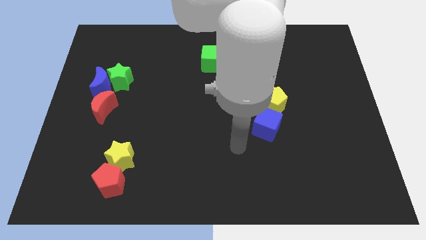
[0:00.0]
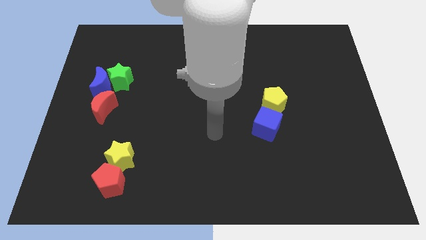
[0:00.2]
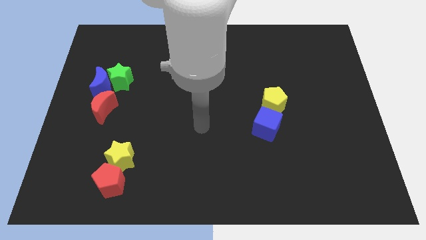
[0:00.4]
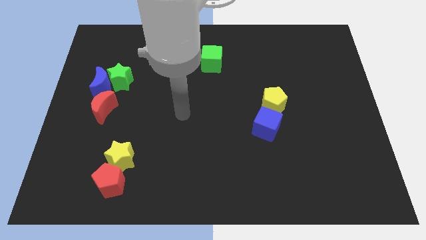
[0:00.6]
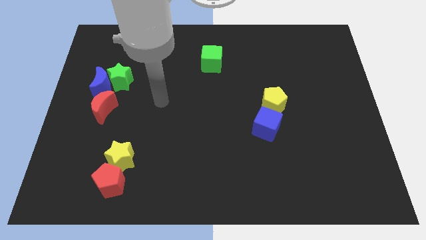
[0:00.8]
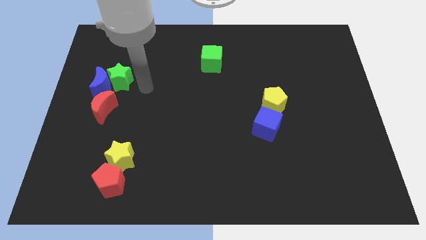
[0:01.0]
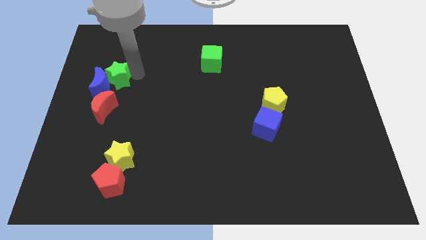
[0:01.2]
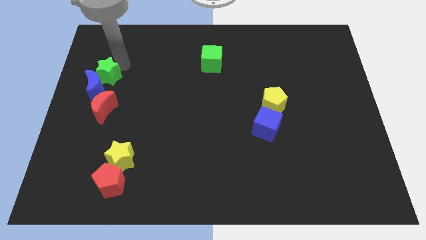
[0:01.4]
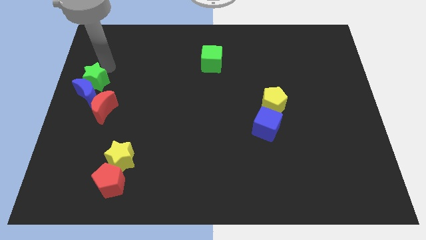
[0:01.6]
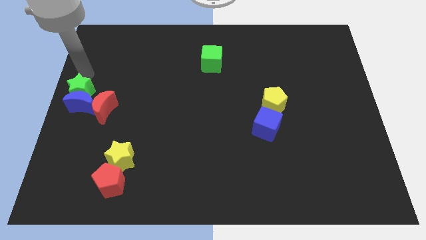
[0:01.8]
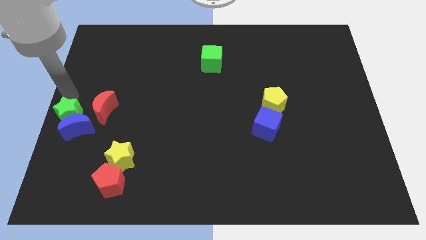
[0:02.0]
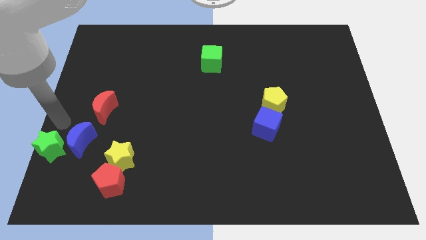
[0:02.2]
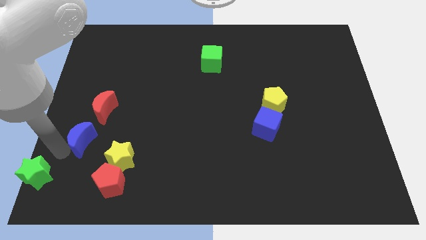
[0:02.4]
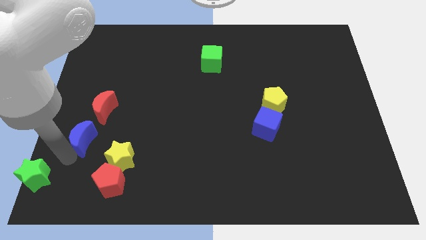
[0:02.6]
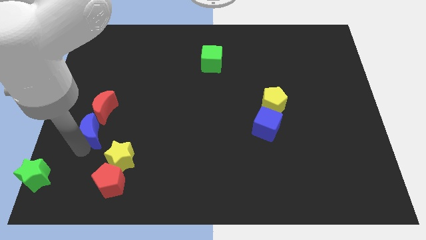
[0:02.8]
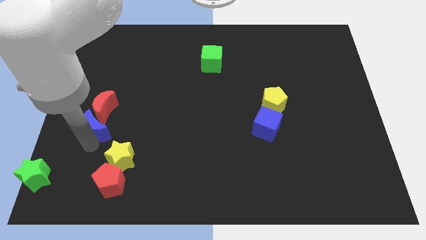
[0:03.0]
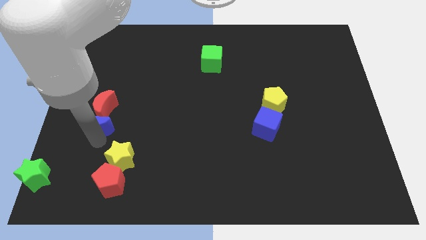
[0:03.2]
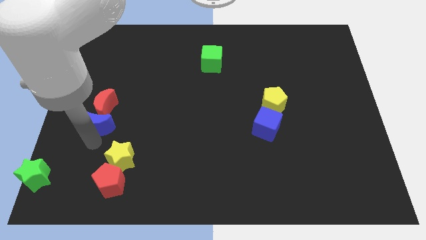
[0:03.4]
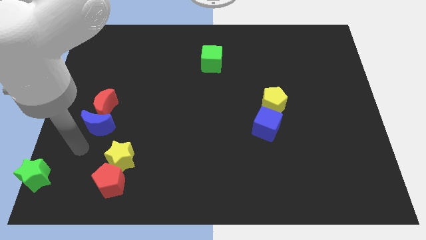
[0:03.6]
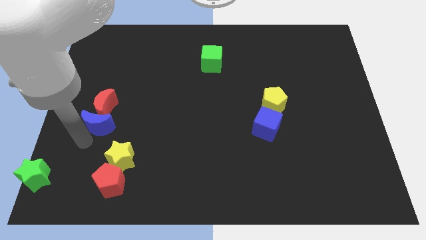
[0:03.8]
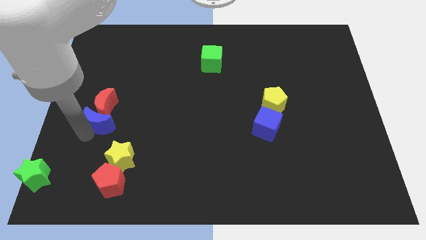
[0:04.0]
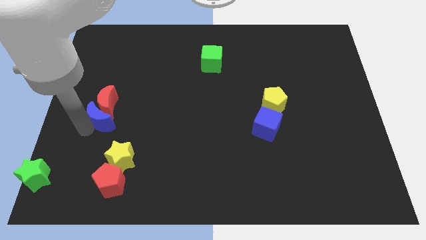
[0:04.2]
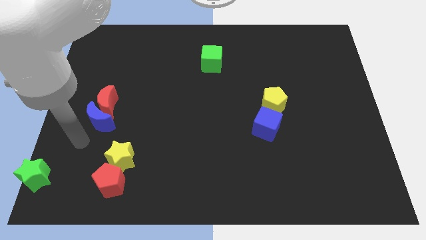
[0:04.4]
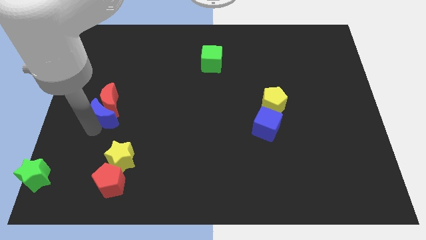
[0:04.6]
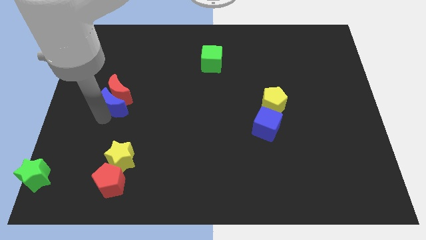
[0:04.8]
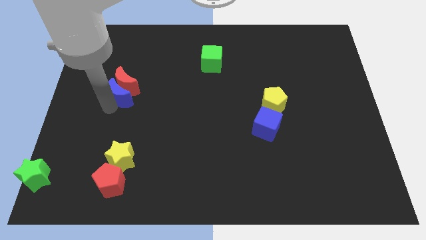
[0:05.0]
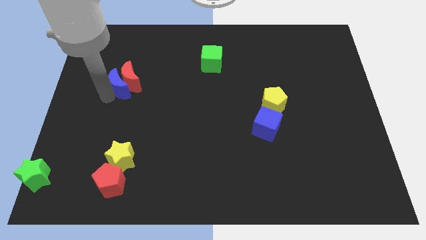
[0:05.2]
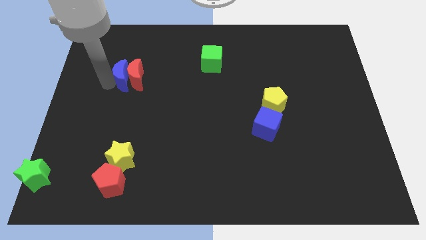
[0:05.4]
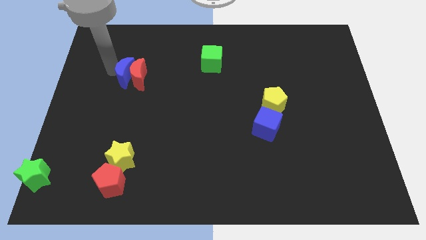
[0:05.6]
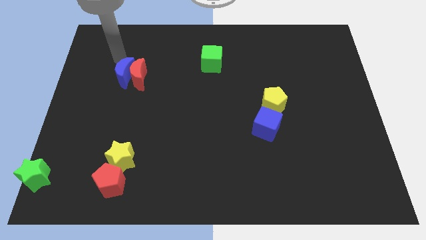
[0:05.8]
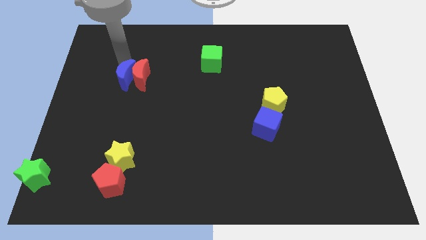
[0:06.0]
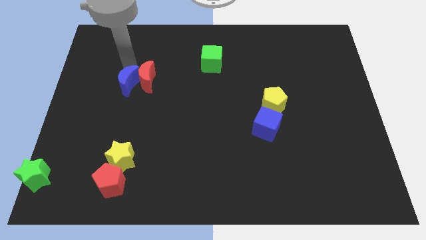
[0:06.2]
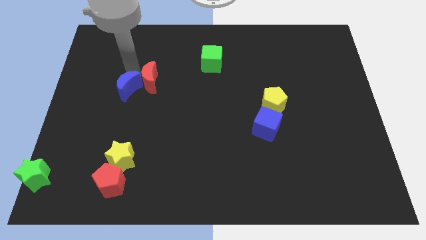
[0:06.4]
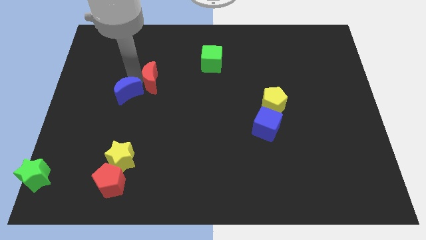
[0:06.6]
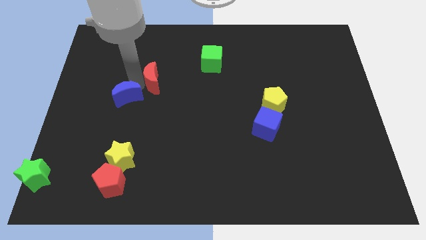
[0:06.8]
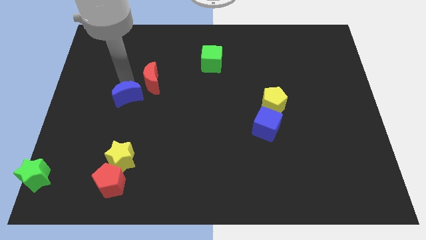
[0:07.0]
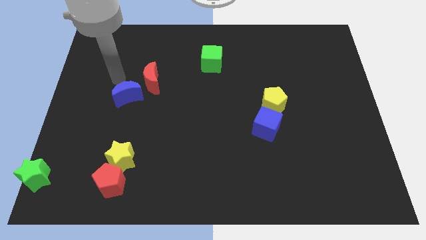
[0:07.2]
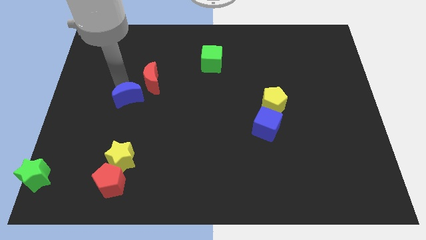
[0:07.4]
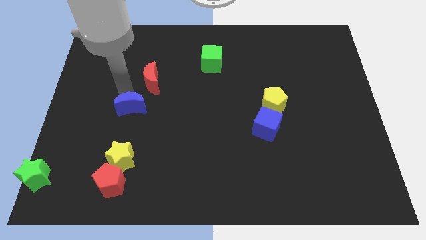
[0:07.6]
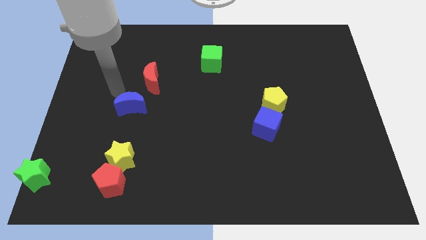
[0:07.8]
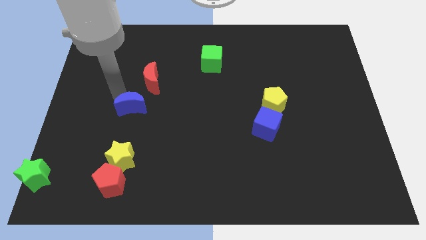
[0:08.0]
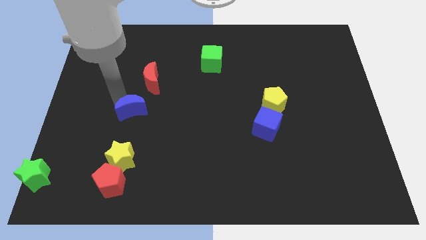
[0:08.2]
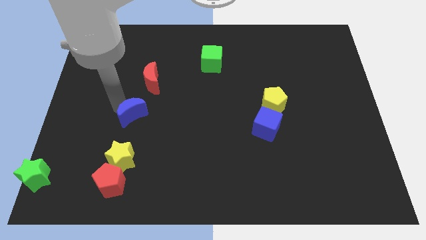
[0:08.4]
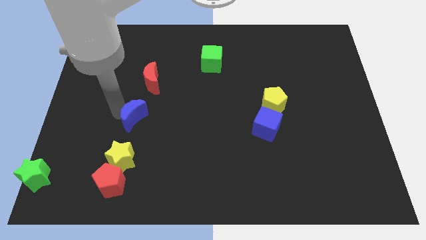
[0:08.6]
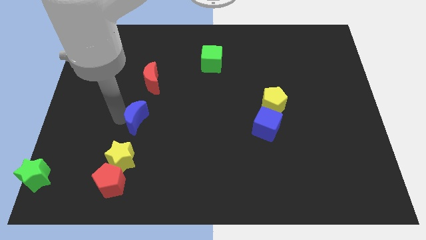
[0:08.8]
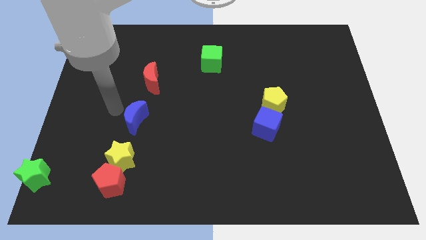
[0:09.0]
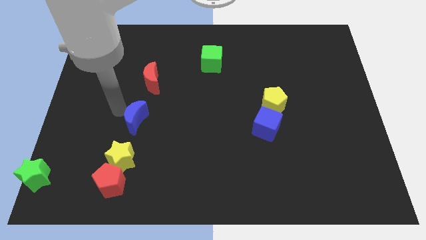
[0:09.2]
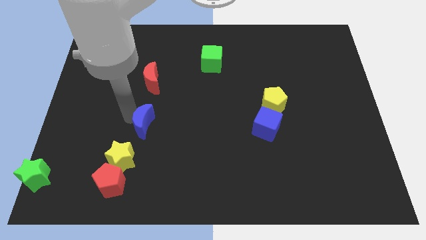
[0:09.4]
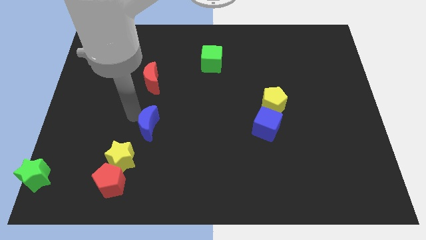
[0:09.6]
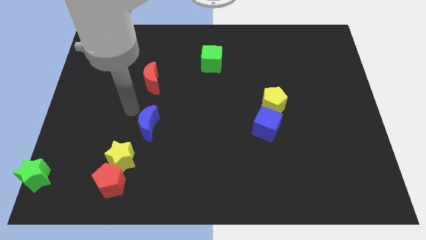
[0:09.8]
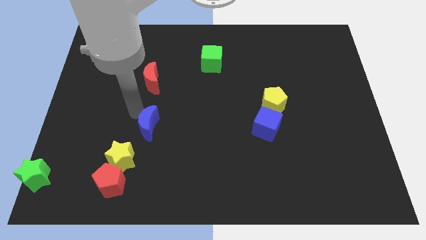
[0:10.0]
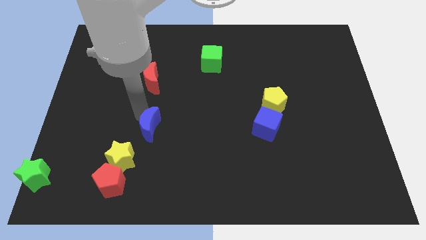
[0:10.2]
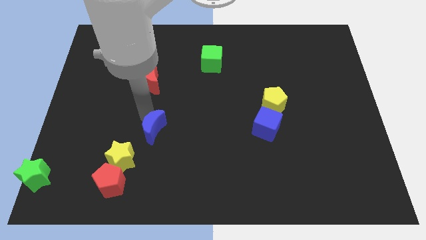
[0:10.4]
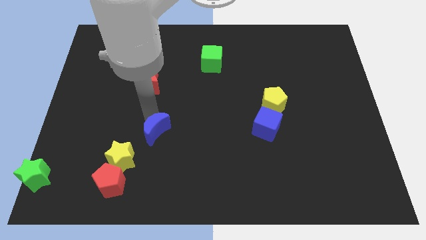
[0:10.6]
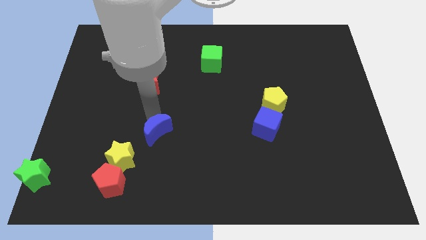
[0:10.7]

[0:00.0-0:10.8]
move the blue moon down and right

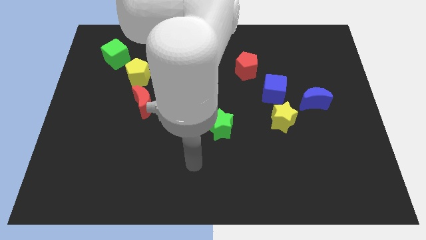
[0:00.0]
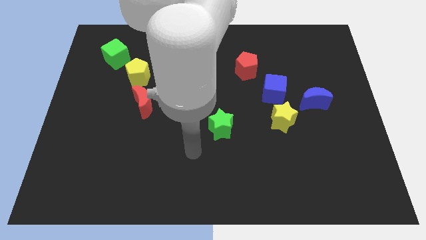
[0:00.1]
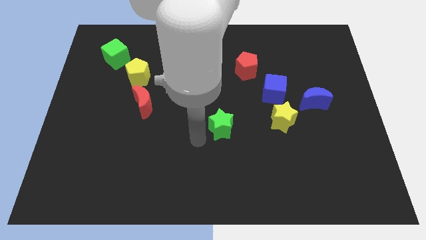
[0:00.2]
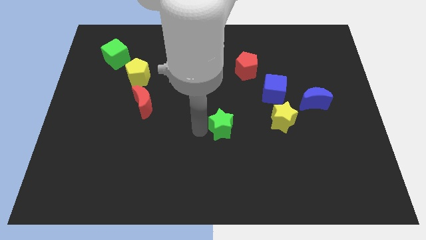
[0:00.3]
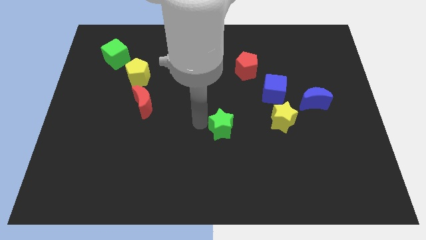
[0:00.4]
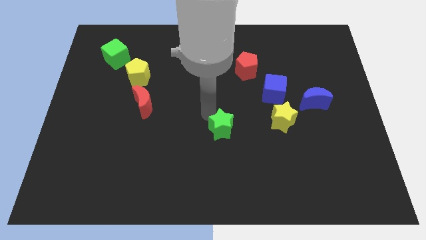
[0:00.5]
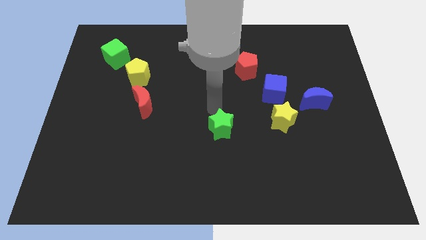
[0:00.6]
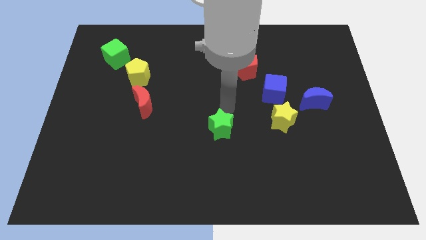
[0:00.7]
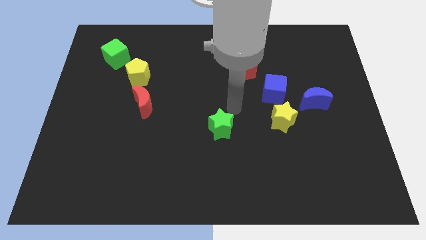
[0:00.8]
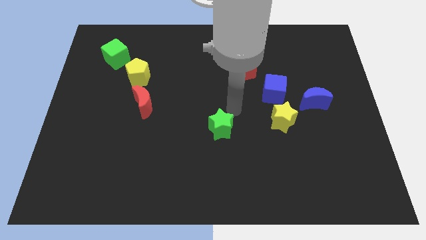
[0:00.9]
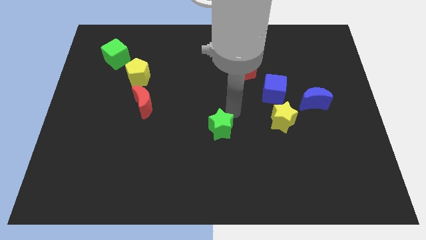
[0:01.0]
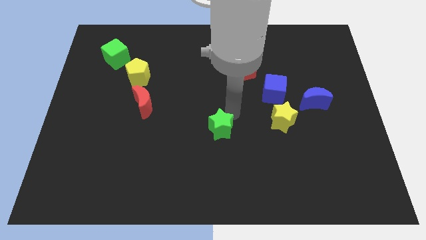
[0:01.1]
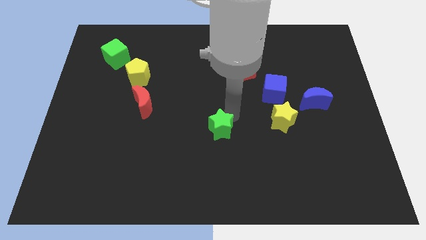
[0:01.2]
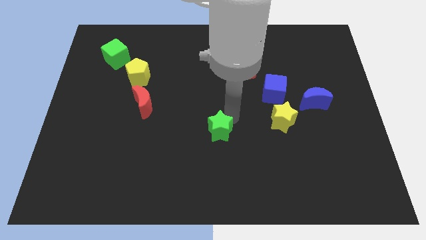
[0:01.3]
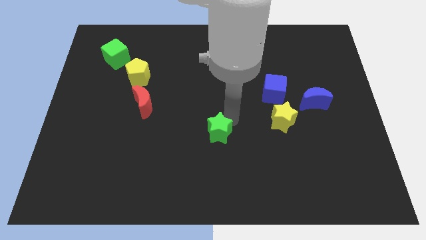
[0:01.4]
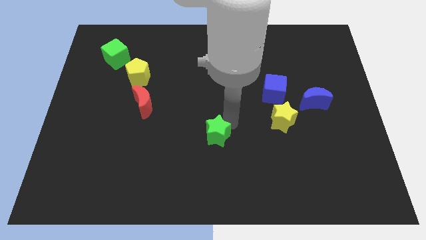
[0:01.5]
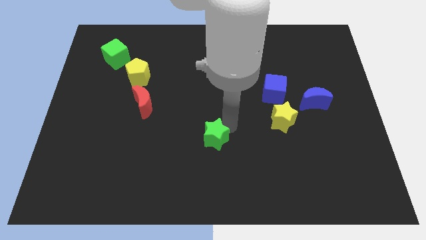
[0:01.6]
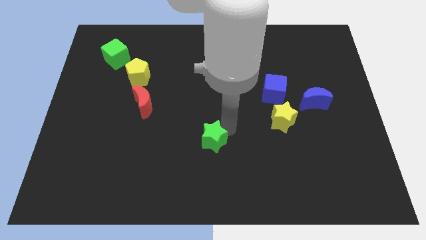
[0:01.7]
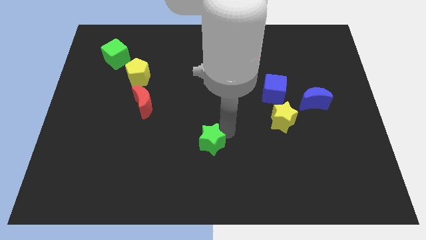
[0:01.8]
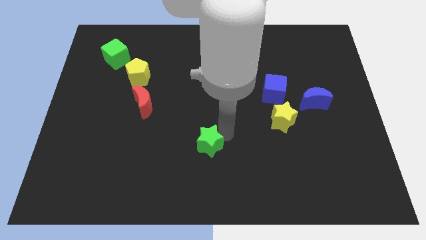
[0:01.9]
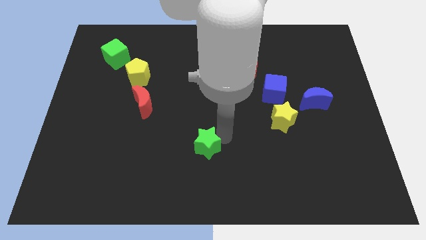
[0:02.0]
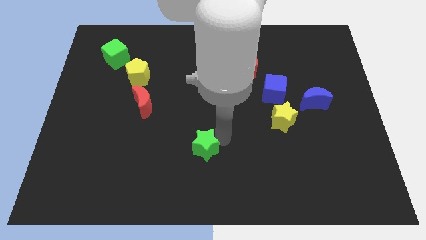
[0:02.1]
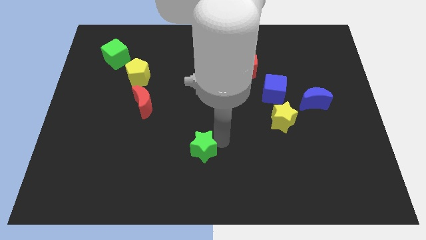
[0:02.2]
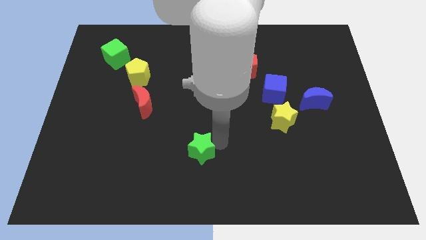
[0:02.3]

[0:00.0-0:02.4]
slide the green star a little bit downwards and then left

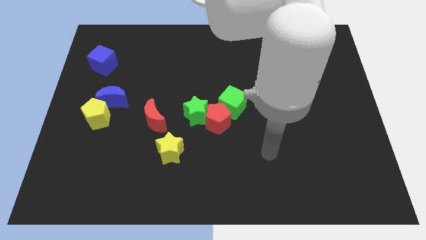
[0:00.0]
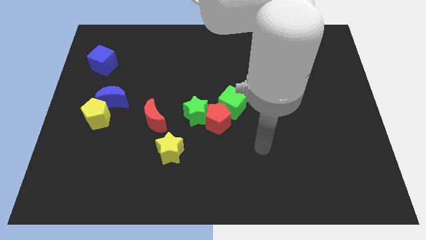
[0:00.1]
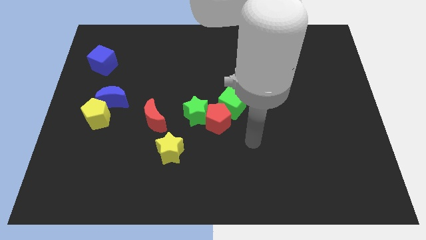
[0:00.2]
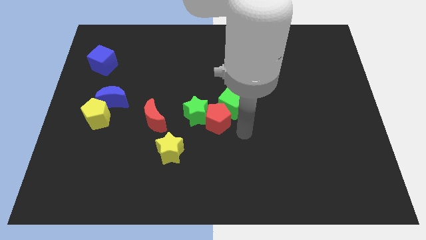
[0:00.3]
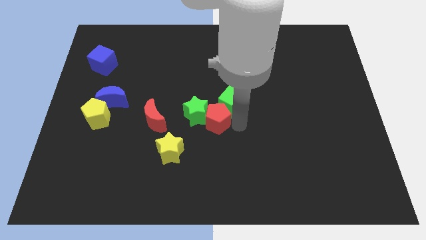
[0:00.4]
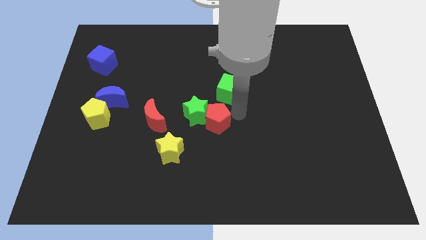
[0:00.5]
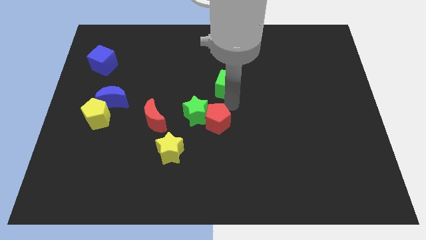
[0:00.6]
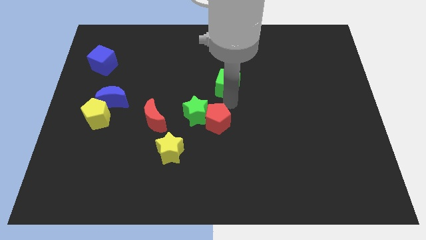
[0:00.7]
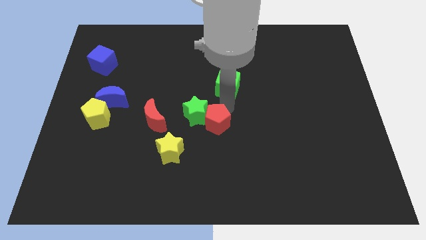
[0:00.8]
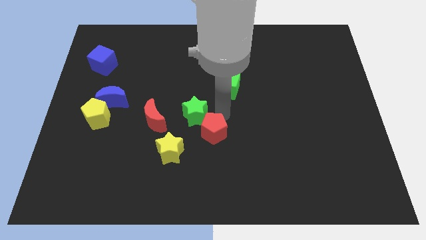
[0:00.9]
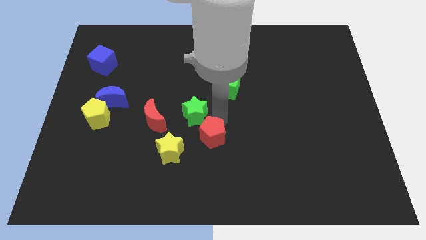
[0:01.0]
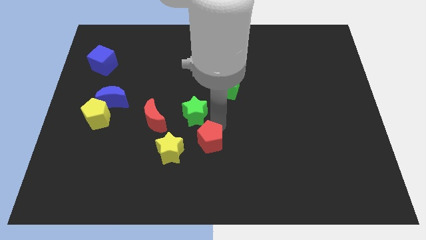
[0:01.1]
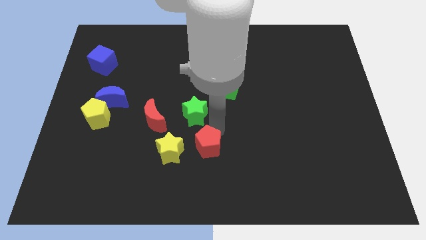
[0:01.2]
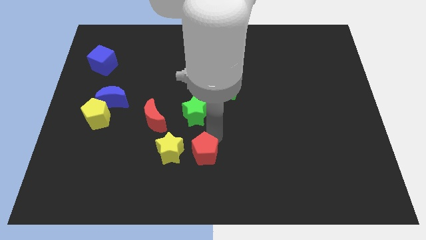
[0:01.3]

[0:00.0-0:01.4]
move the red pentagon somewhat diagonally down and to the left
